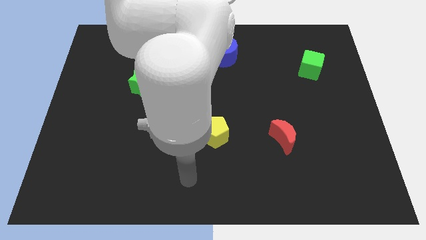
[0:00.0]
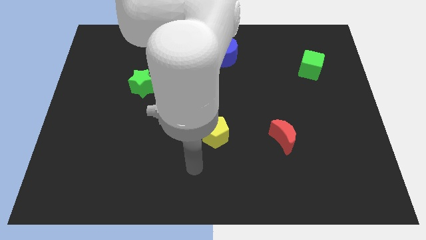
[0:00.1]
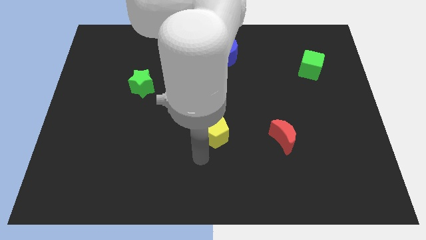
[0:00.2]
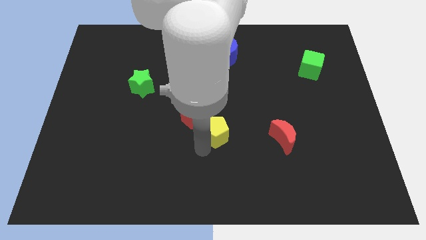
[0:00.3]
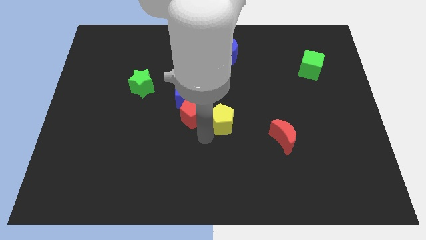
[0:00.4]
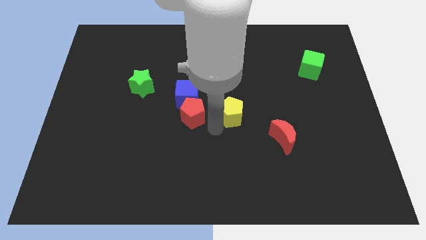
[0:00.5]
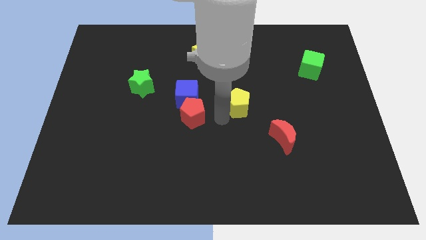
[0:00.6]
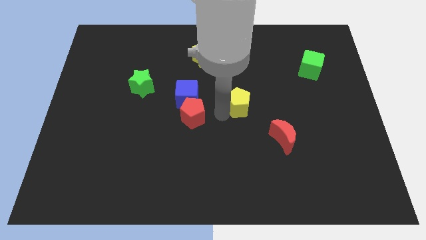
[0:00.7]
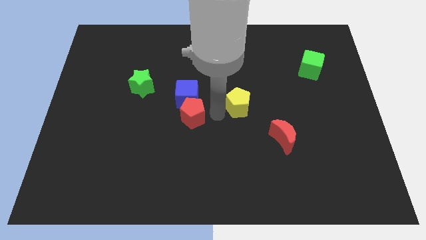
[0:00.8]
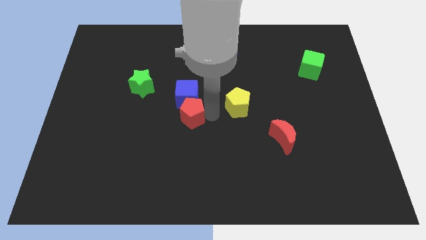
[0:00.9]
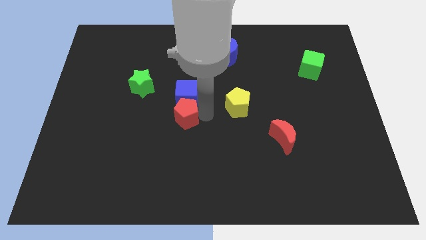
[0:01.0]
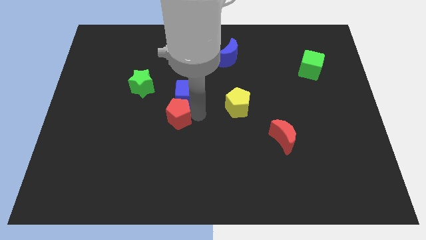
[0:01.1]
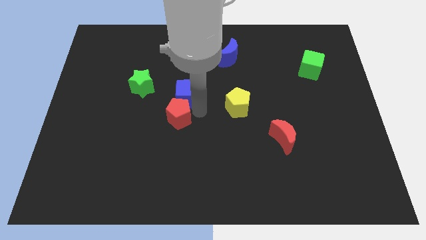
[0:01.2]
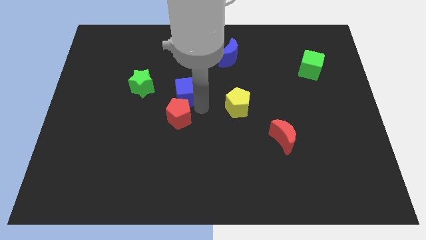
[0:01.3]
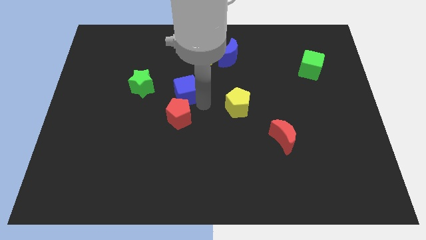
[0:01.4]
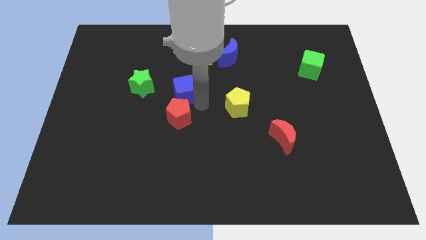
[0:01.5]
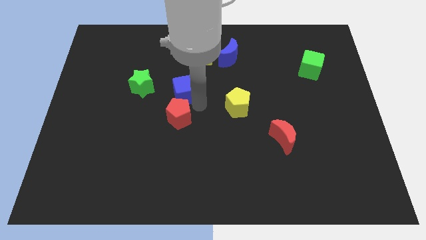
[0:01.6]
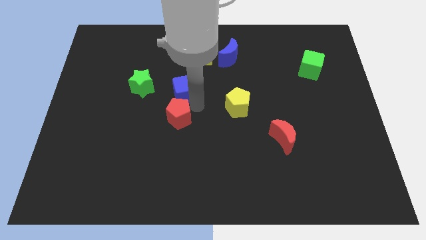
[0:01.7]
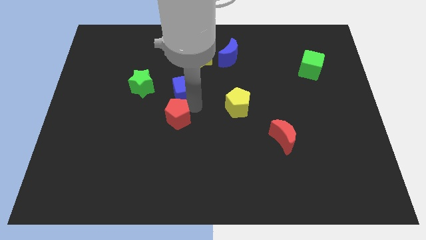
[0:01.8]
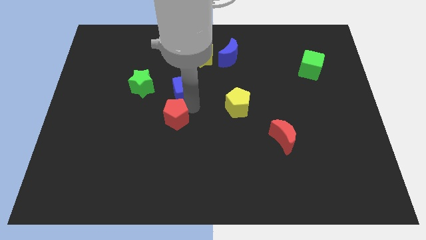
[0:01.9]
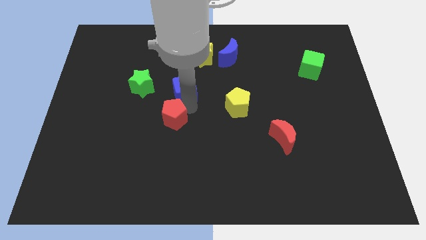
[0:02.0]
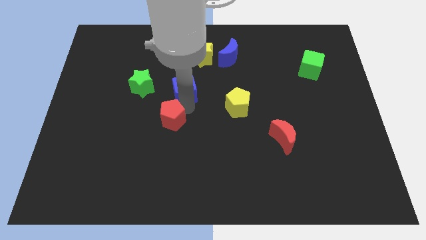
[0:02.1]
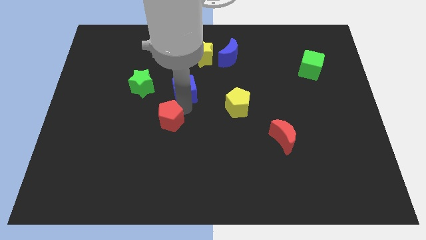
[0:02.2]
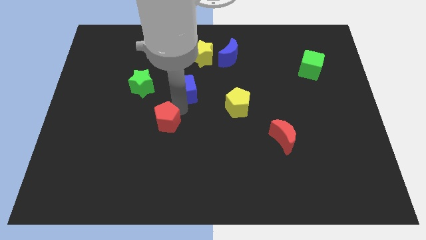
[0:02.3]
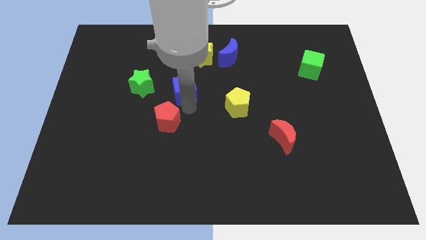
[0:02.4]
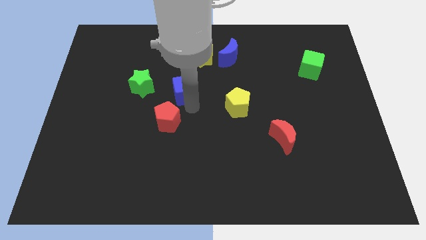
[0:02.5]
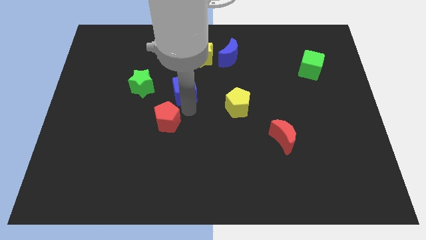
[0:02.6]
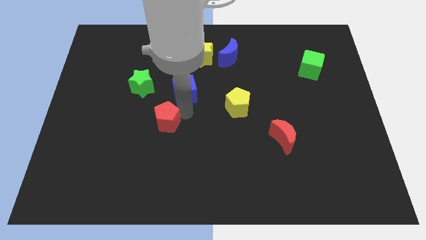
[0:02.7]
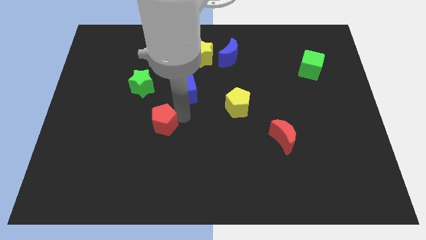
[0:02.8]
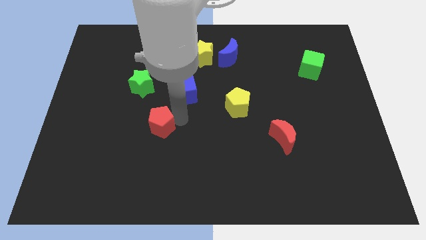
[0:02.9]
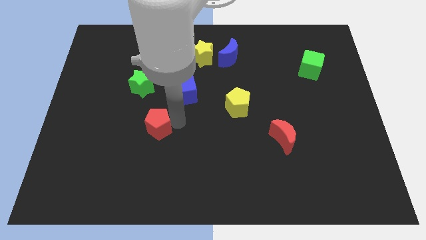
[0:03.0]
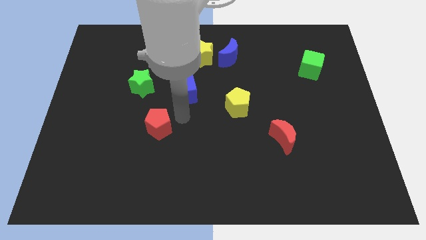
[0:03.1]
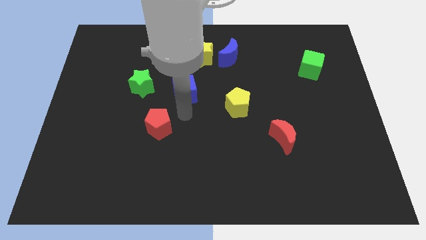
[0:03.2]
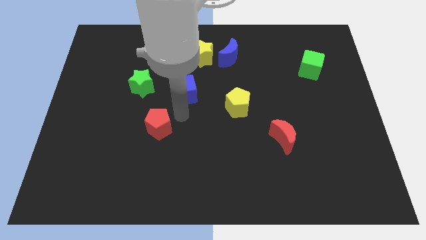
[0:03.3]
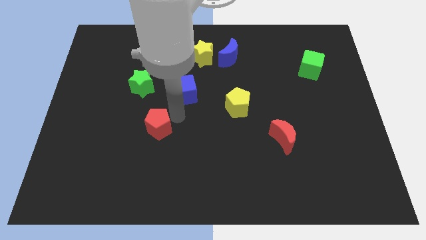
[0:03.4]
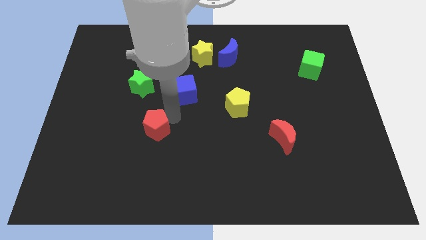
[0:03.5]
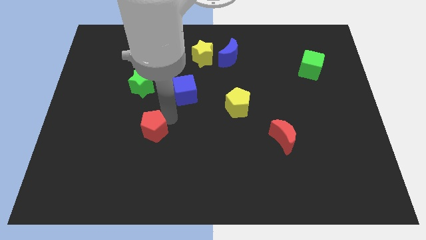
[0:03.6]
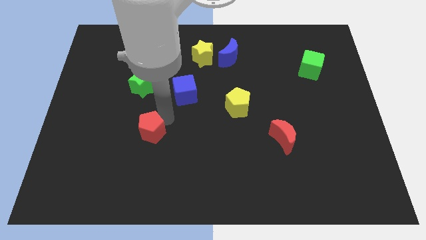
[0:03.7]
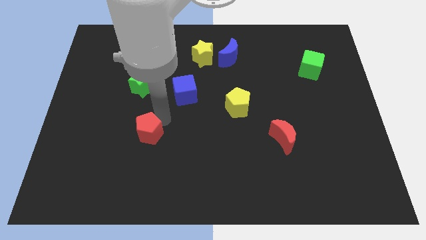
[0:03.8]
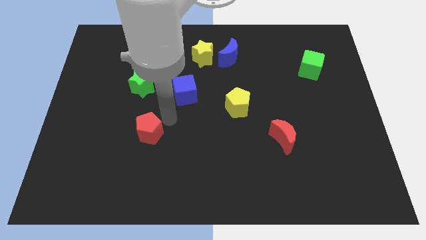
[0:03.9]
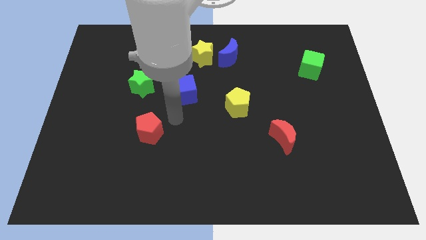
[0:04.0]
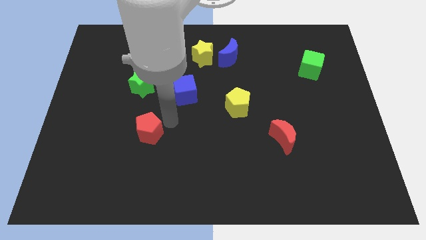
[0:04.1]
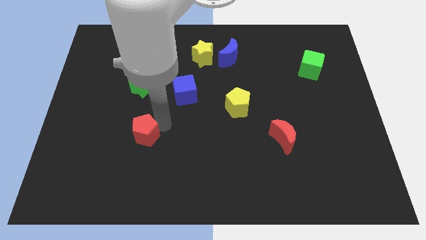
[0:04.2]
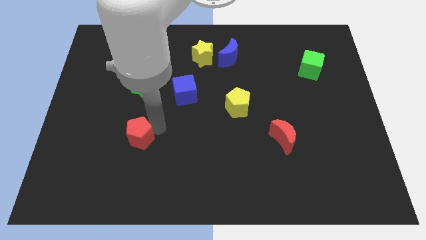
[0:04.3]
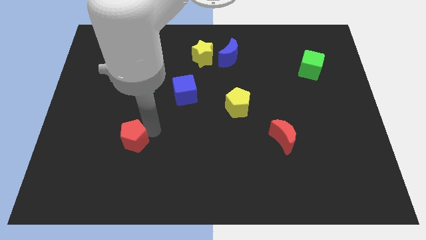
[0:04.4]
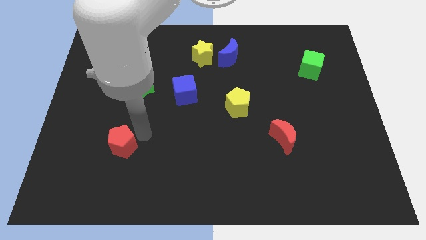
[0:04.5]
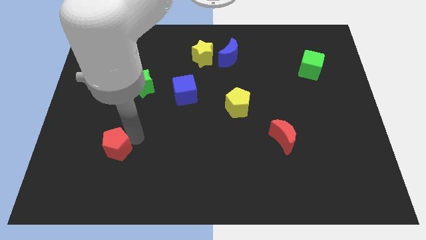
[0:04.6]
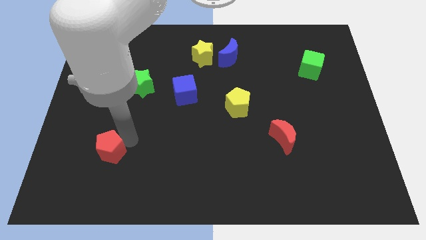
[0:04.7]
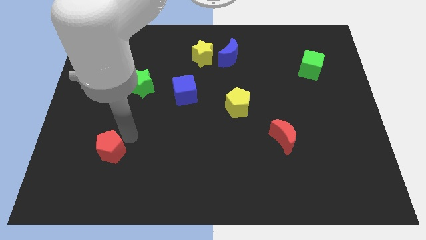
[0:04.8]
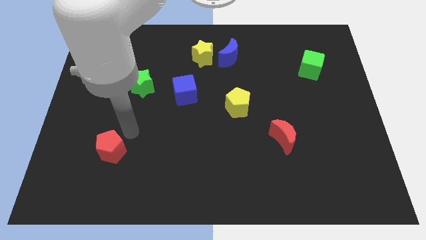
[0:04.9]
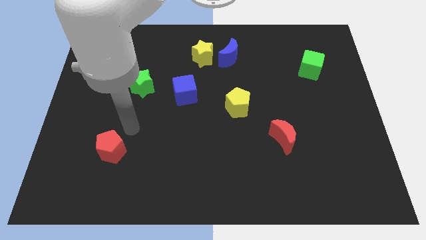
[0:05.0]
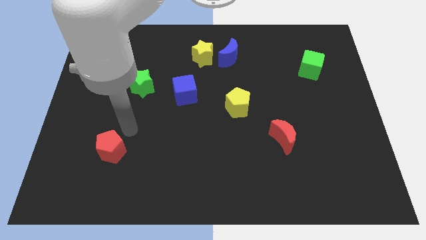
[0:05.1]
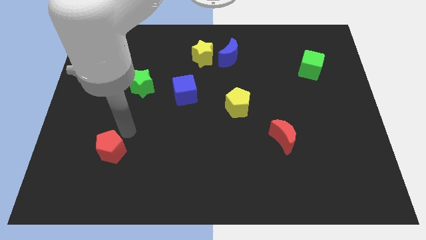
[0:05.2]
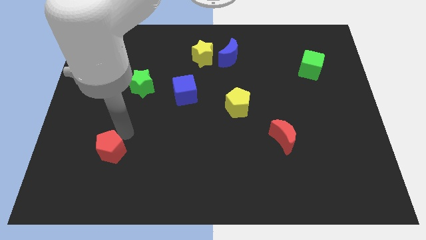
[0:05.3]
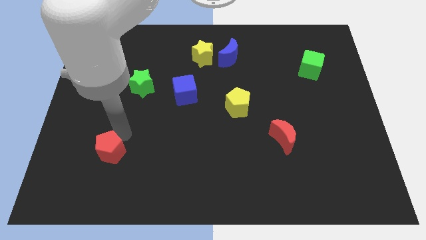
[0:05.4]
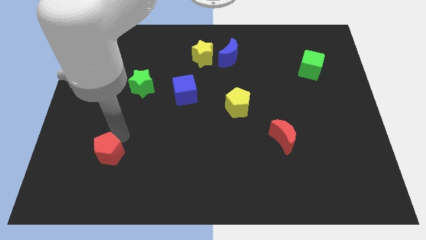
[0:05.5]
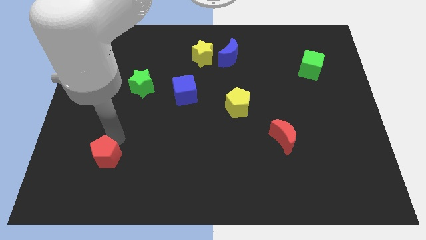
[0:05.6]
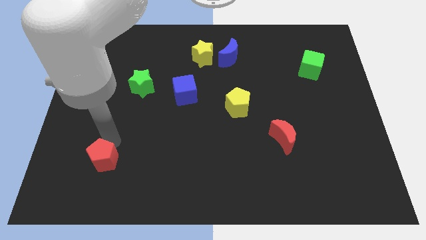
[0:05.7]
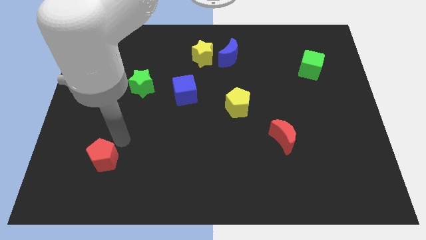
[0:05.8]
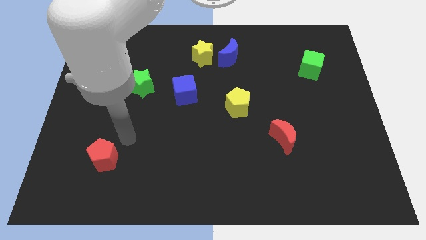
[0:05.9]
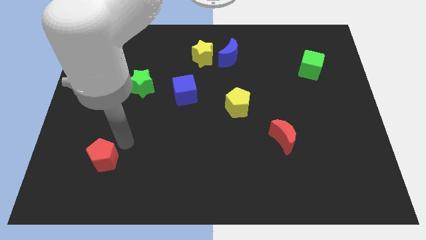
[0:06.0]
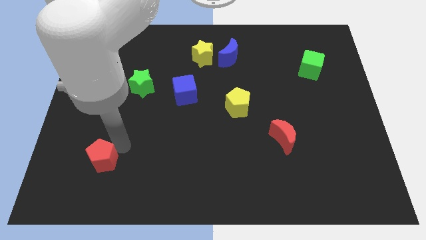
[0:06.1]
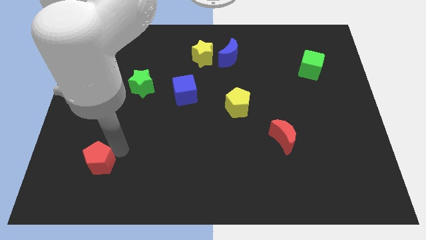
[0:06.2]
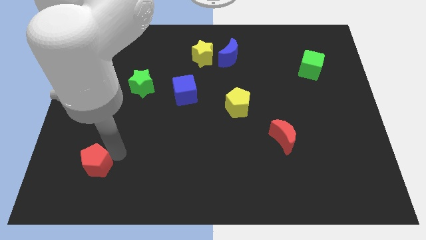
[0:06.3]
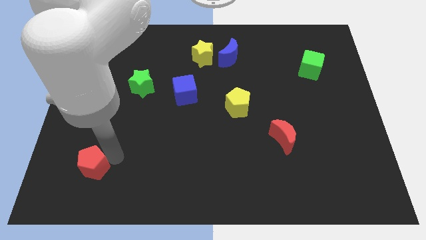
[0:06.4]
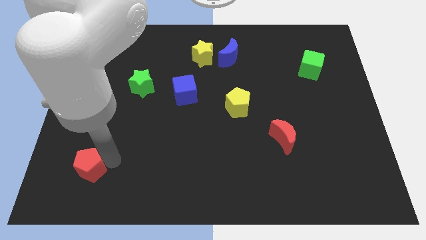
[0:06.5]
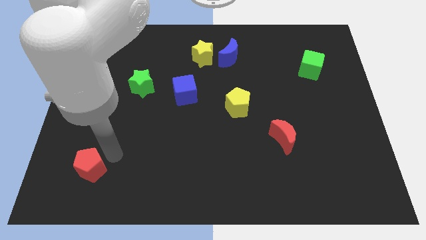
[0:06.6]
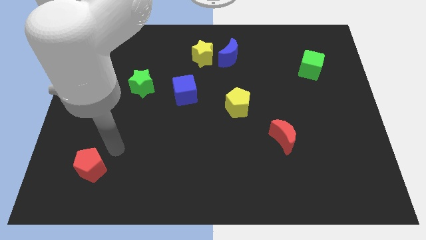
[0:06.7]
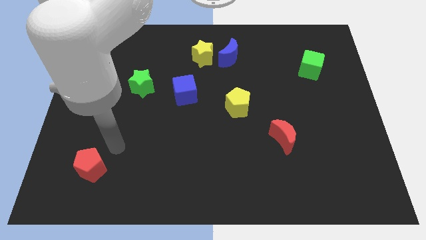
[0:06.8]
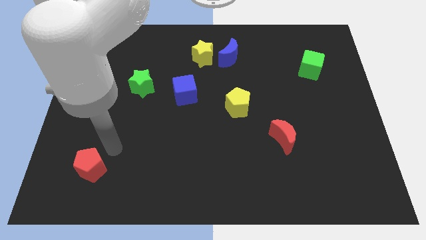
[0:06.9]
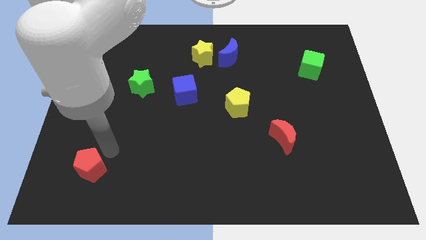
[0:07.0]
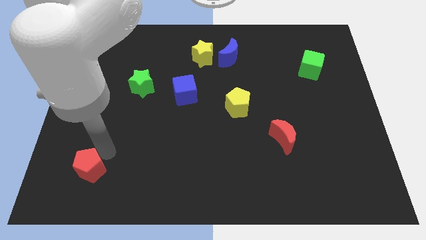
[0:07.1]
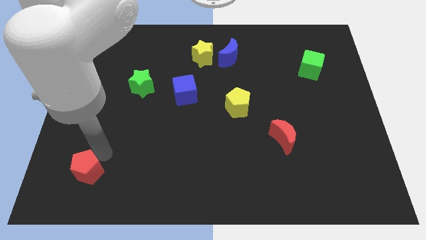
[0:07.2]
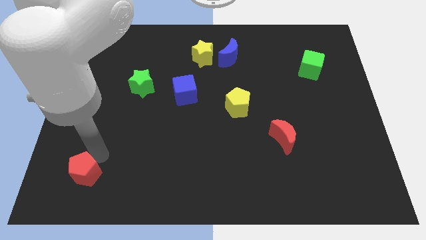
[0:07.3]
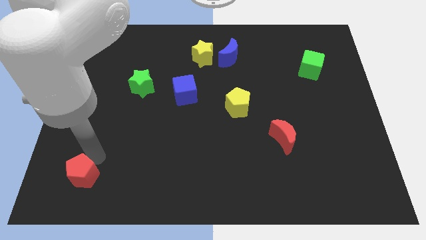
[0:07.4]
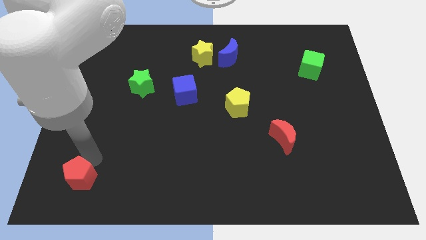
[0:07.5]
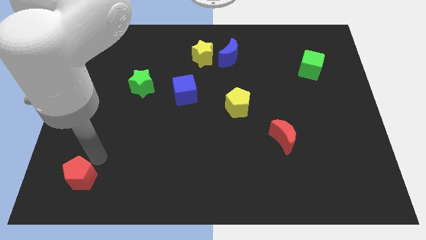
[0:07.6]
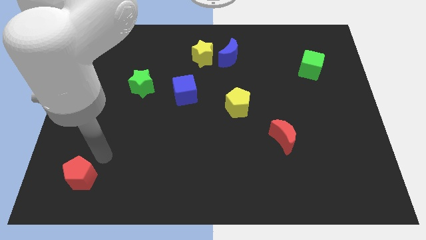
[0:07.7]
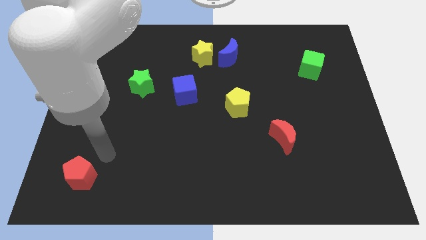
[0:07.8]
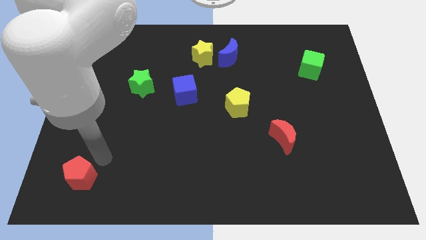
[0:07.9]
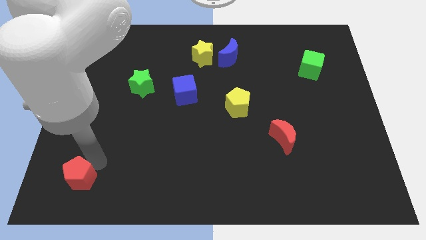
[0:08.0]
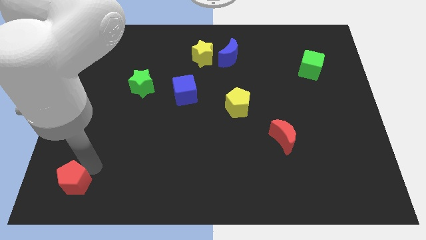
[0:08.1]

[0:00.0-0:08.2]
move the red pentagon to the bottom left of the board
